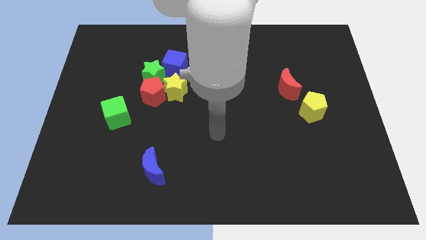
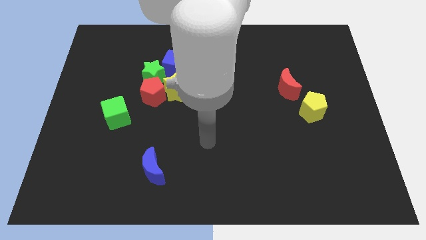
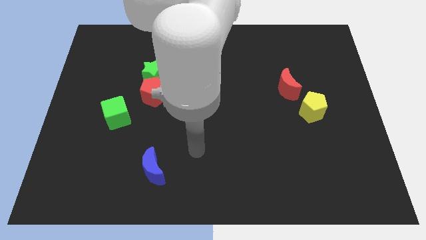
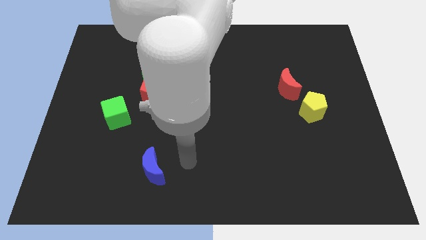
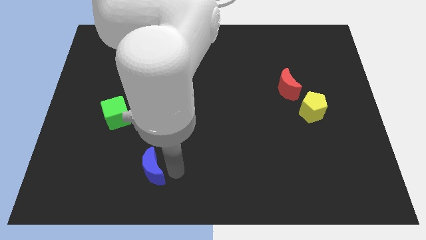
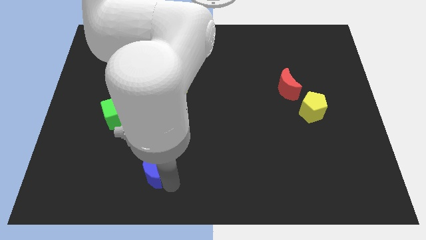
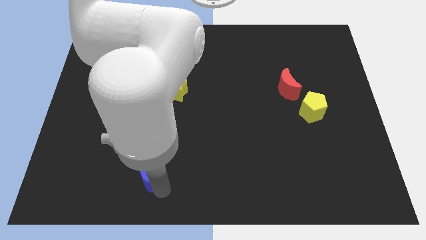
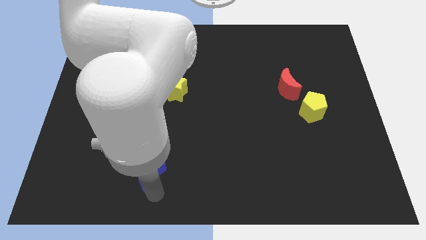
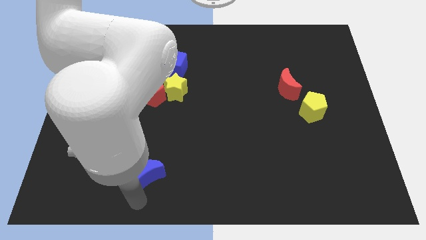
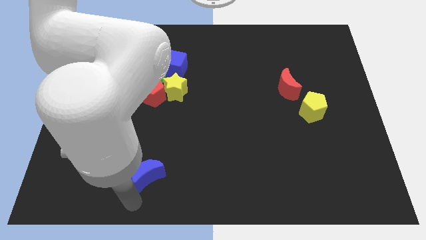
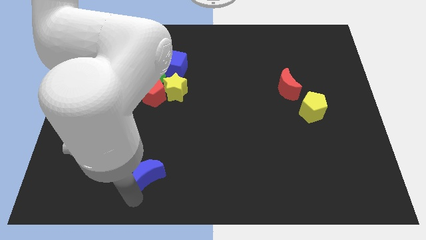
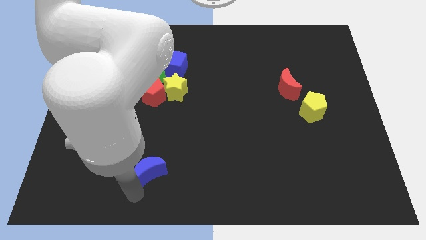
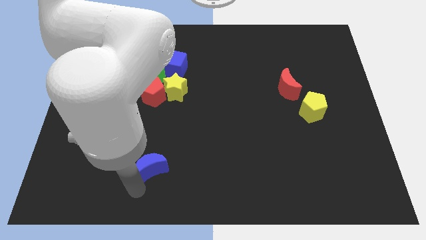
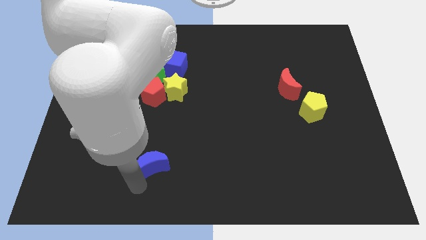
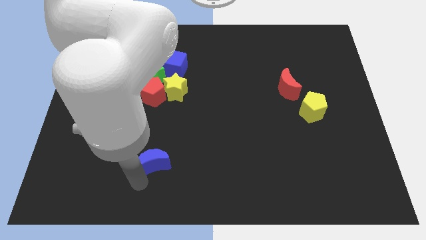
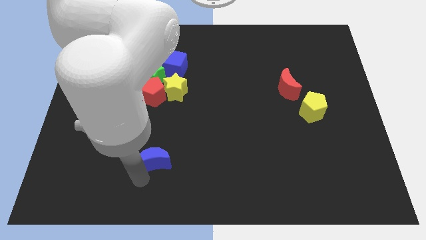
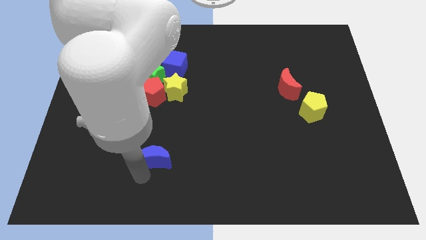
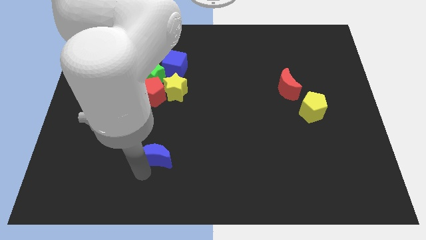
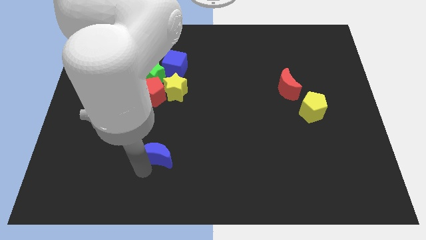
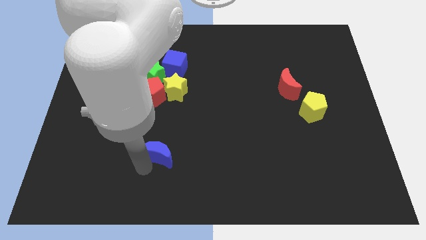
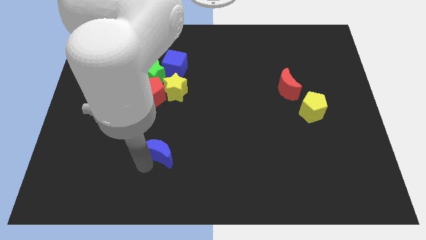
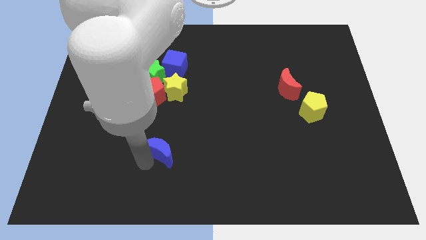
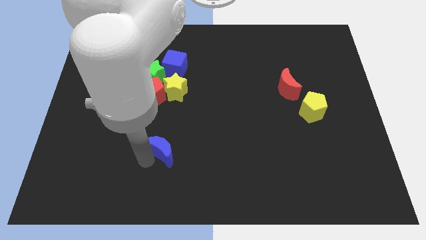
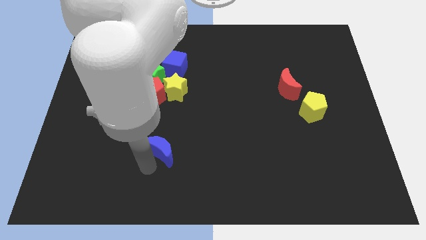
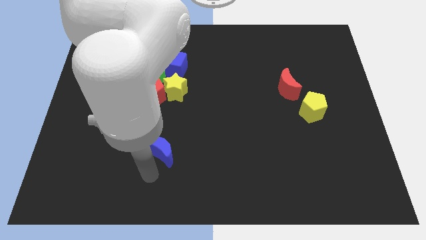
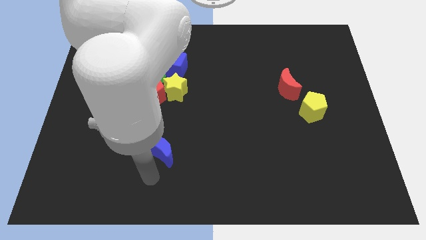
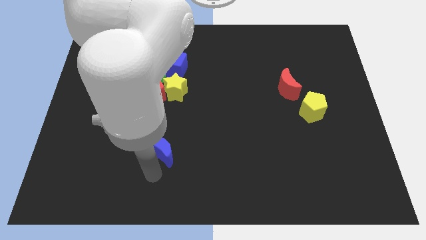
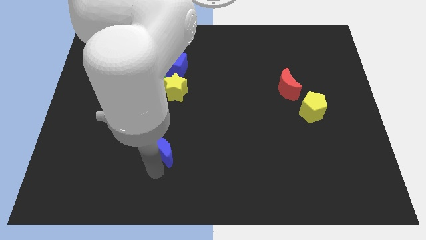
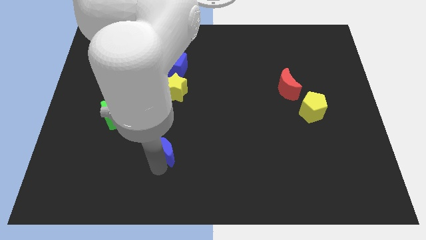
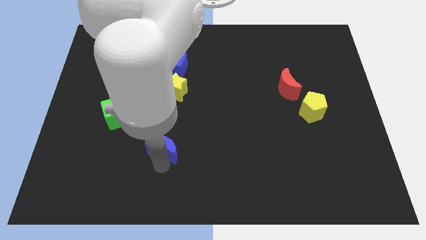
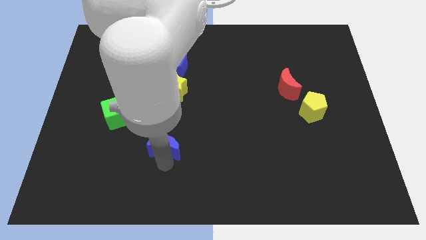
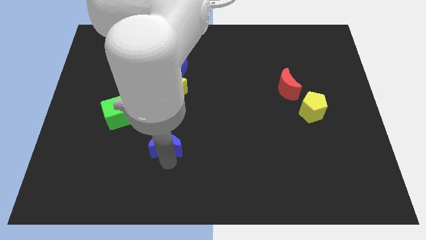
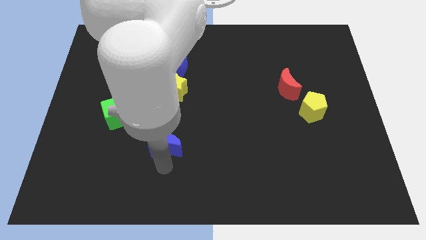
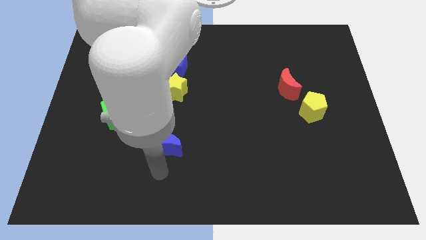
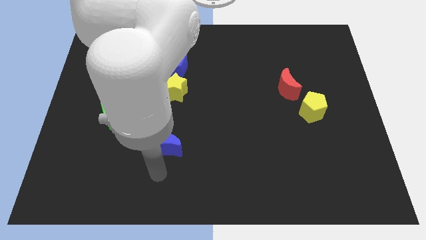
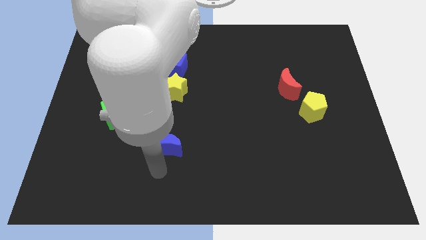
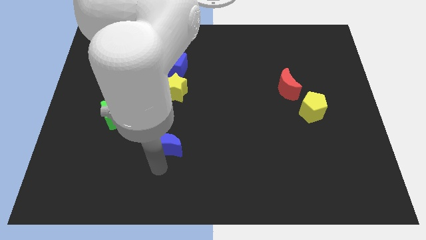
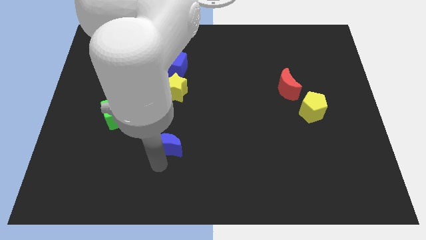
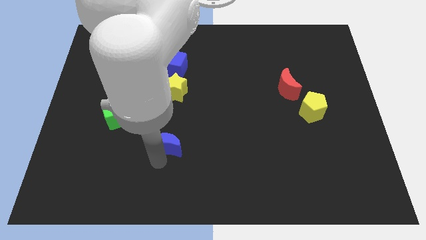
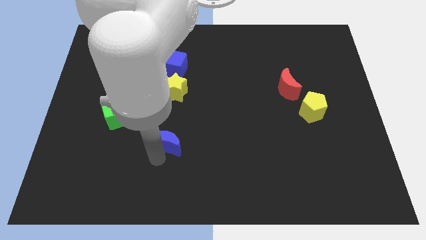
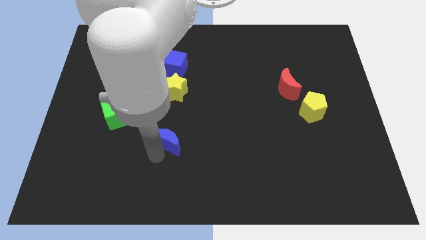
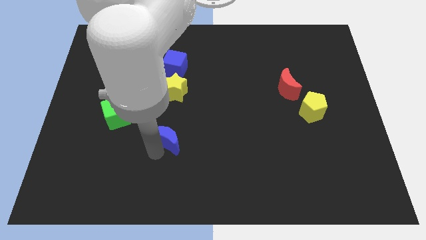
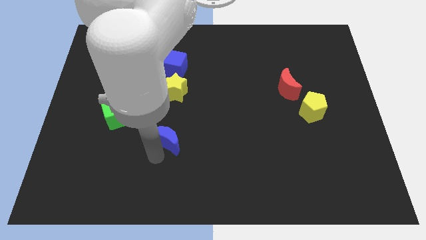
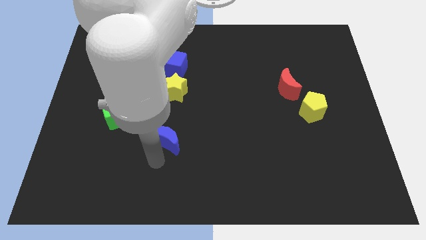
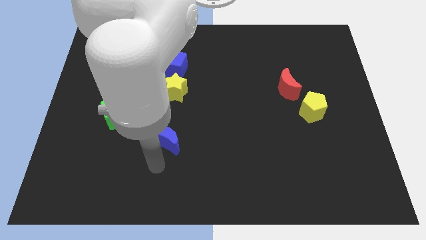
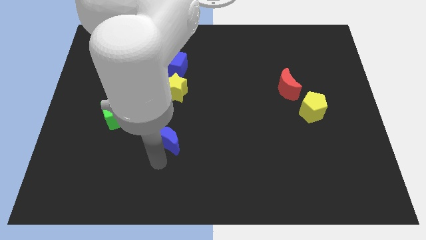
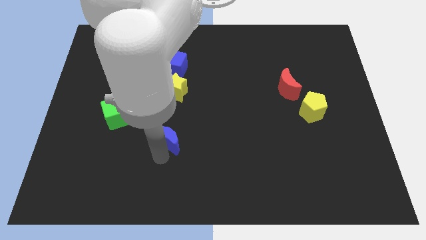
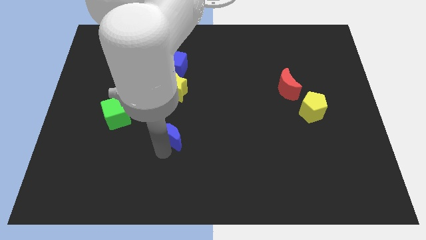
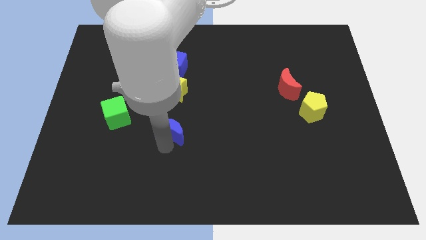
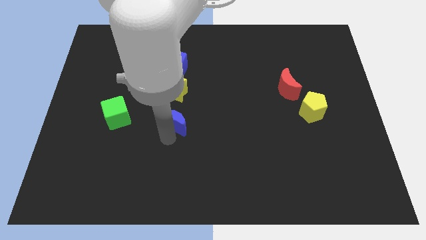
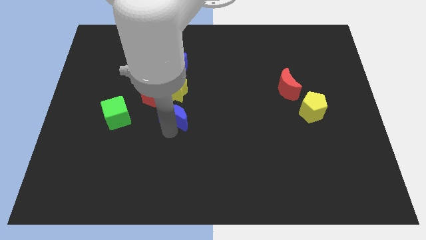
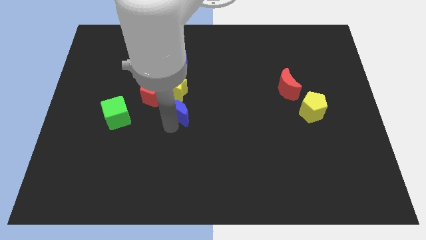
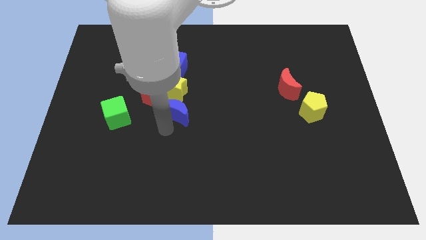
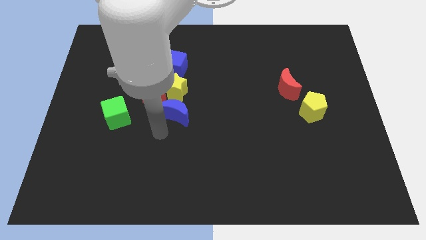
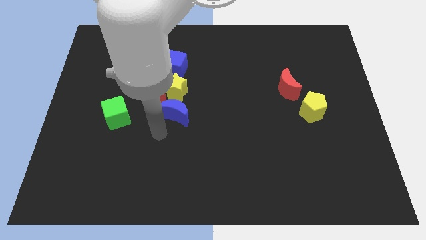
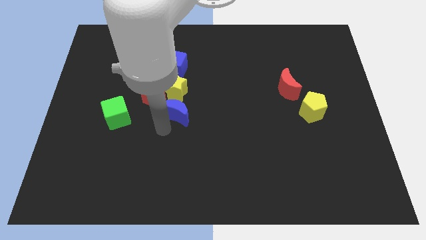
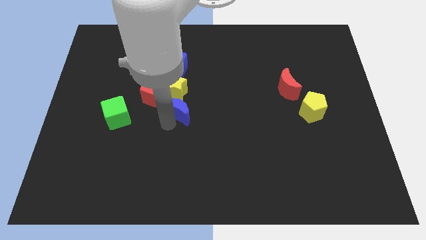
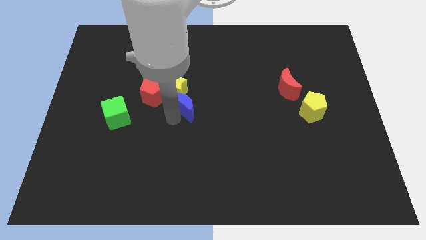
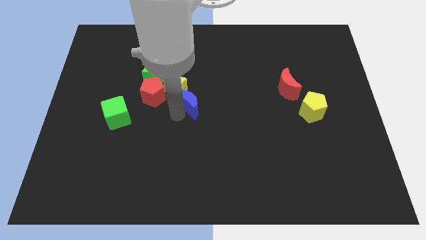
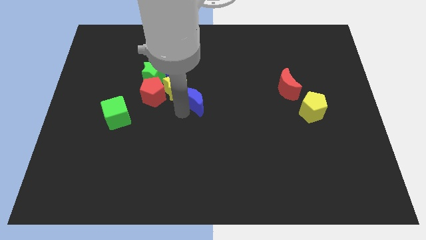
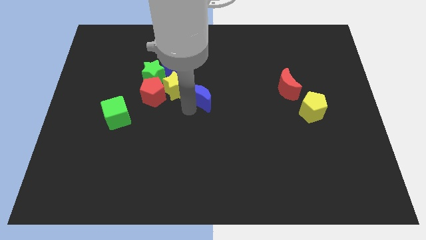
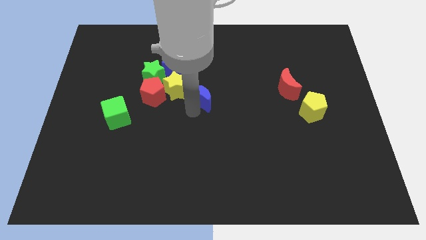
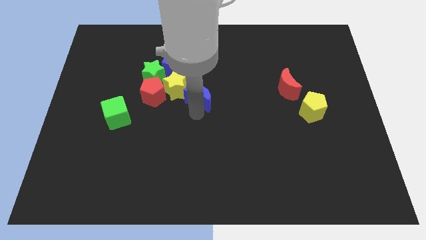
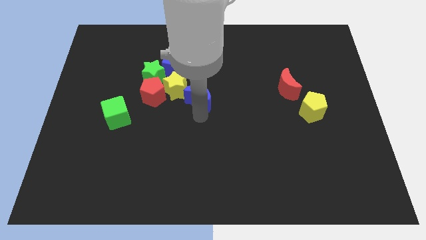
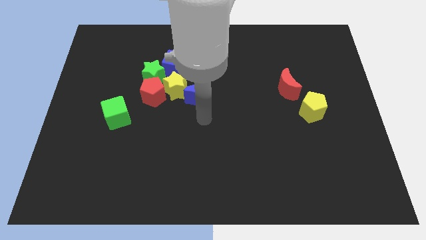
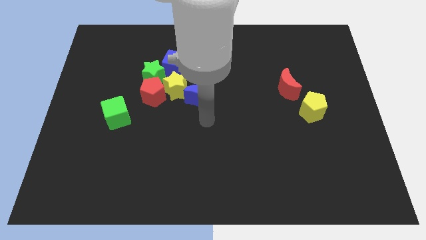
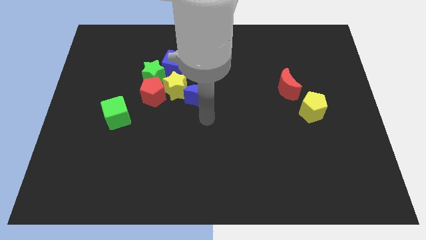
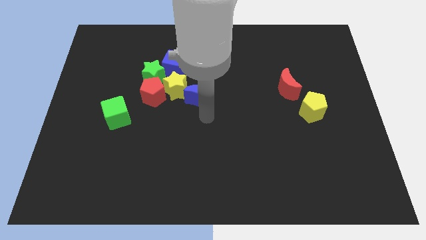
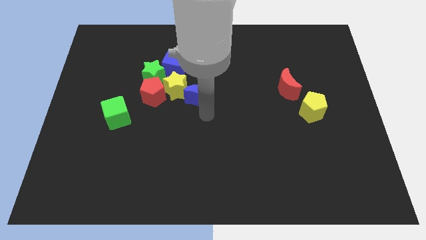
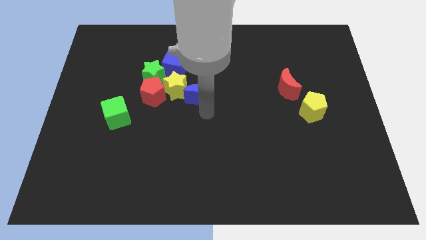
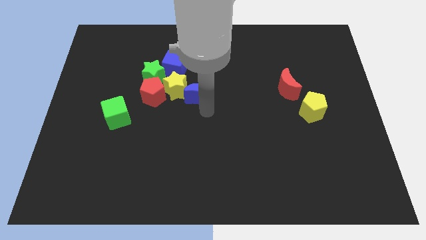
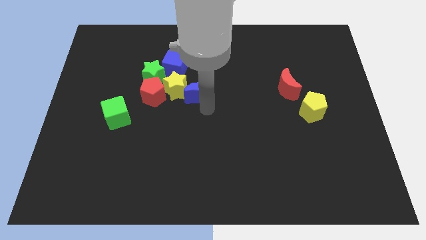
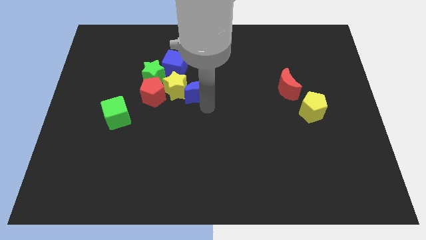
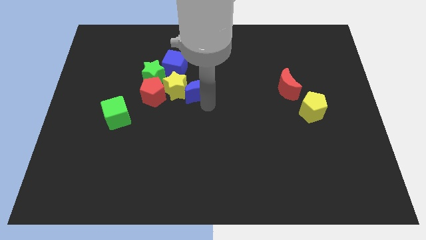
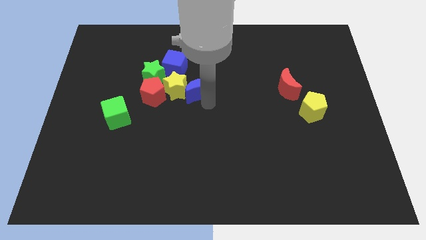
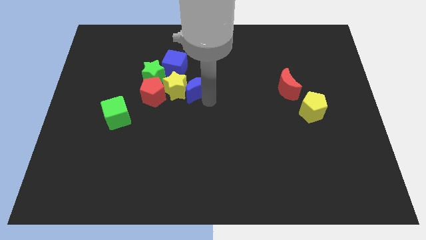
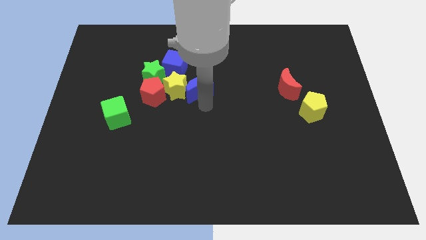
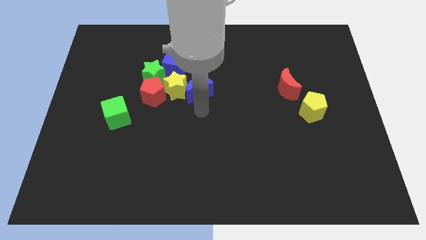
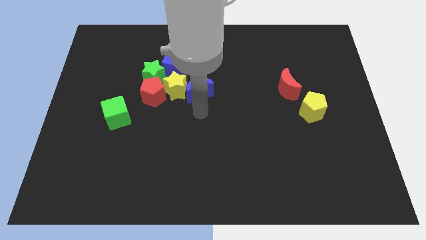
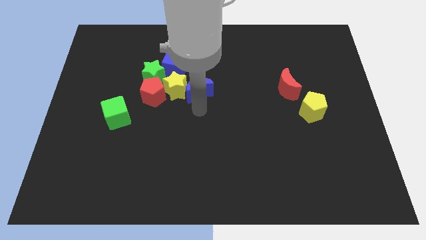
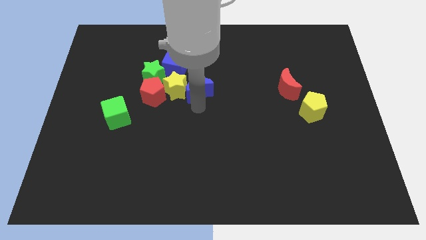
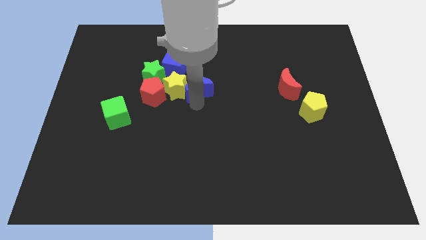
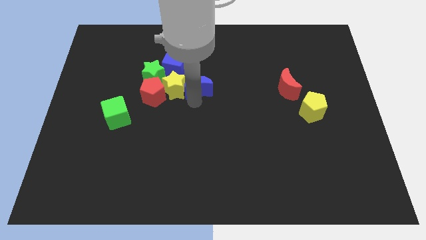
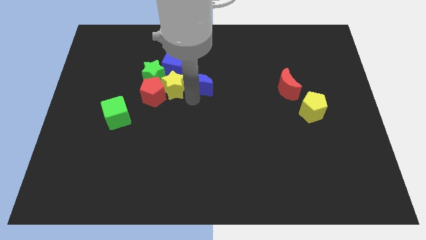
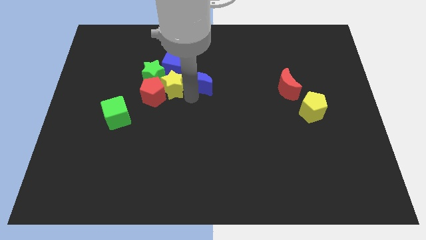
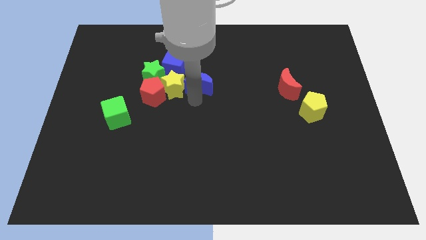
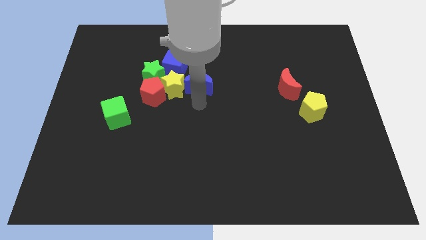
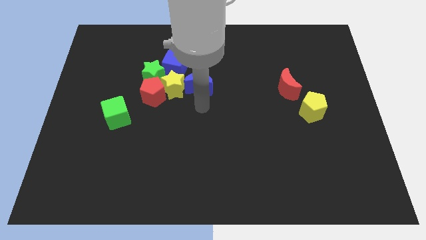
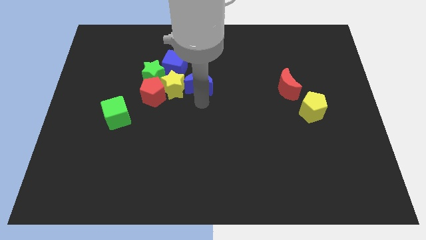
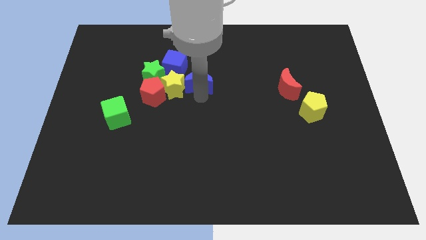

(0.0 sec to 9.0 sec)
move the blue moon upwards
